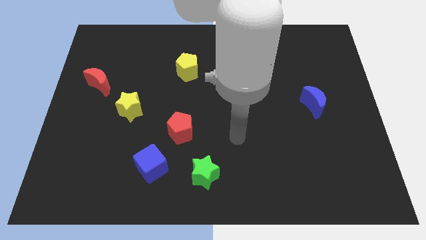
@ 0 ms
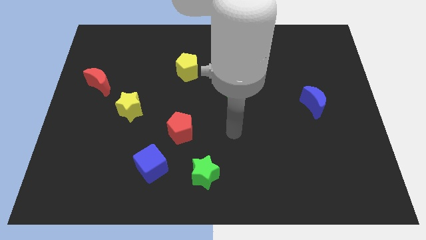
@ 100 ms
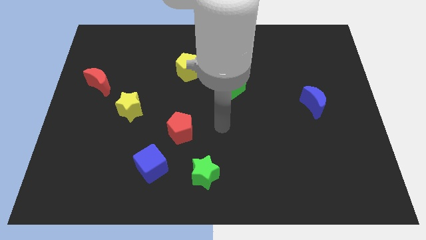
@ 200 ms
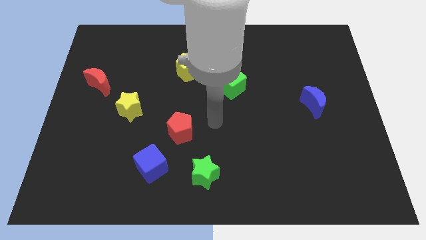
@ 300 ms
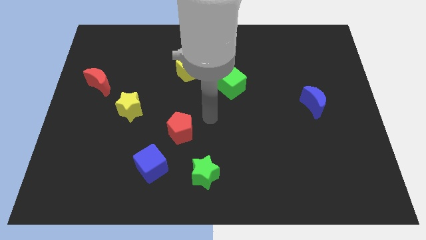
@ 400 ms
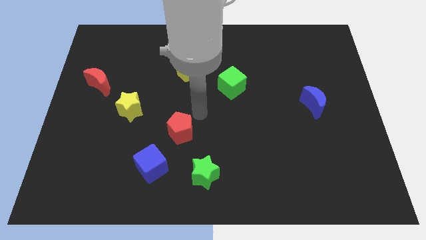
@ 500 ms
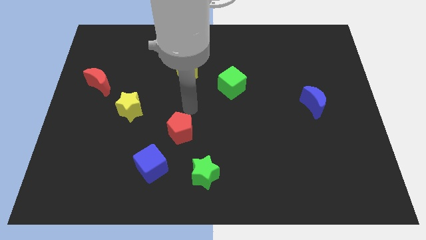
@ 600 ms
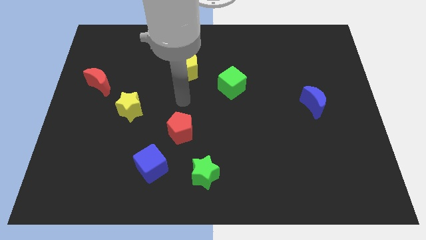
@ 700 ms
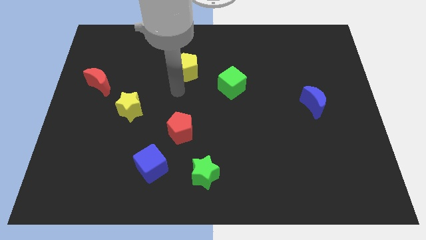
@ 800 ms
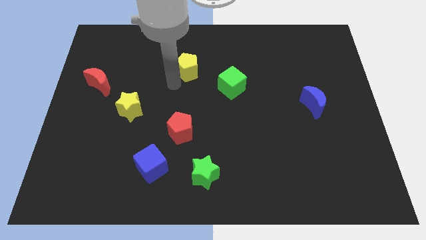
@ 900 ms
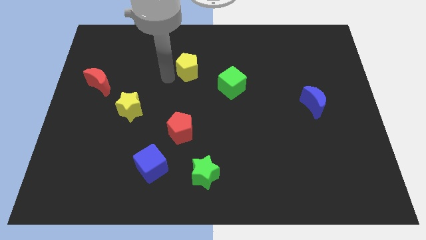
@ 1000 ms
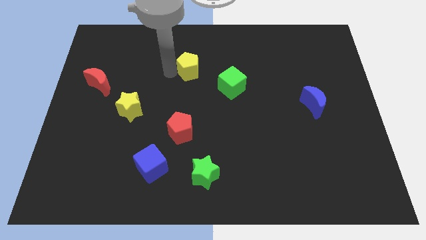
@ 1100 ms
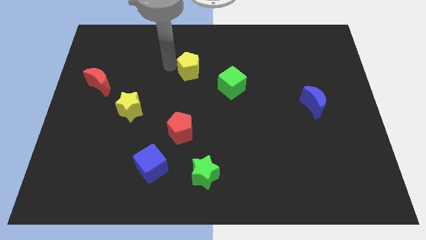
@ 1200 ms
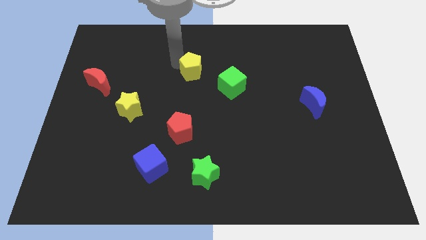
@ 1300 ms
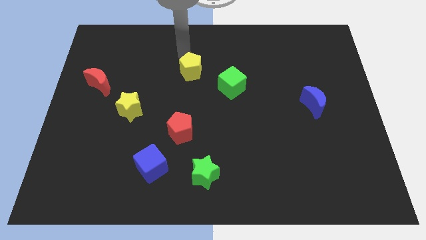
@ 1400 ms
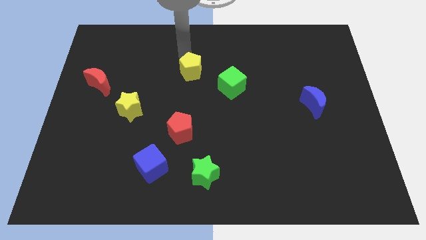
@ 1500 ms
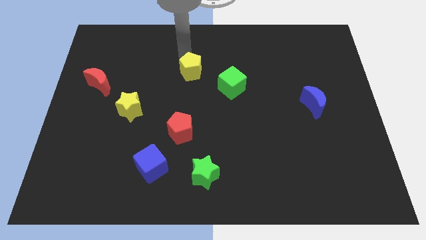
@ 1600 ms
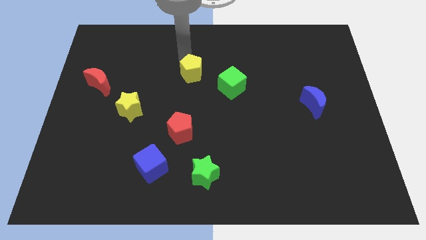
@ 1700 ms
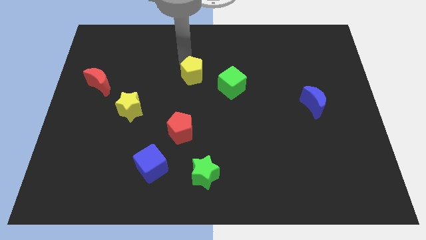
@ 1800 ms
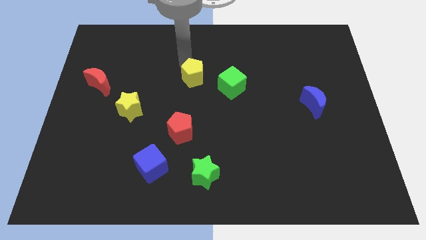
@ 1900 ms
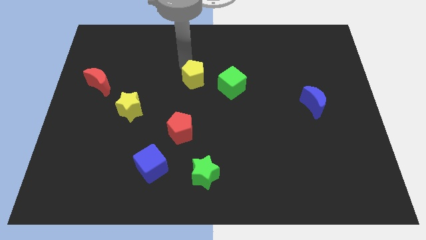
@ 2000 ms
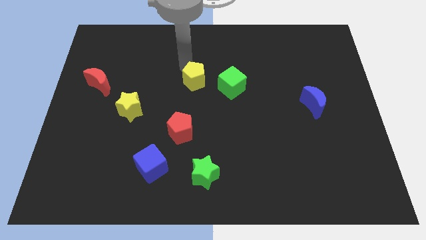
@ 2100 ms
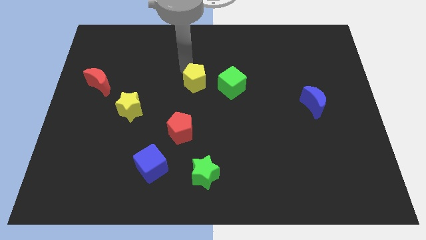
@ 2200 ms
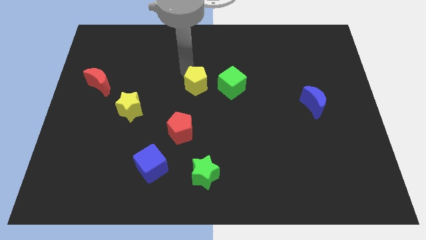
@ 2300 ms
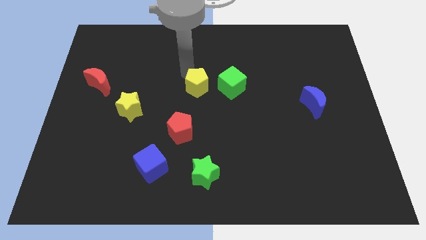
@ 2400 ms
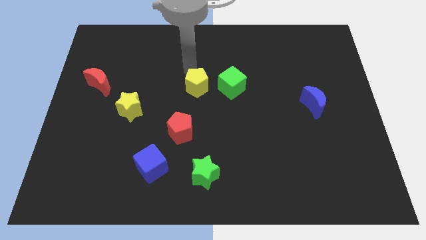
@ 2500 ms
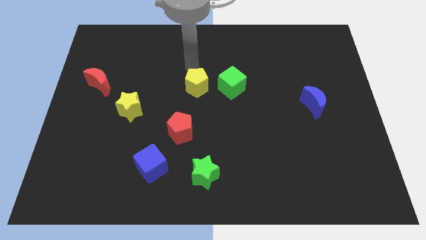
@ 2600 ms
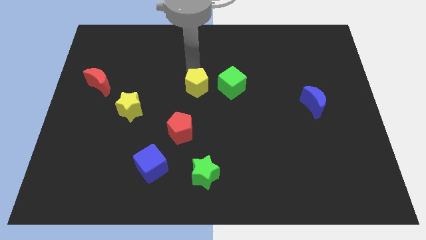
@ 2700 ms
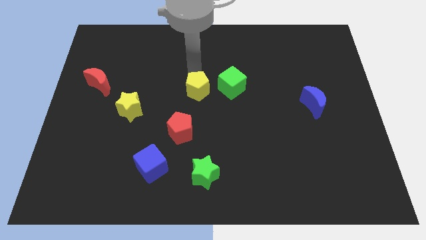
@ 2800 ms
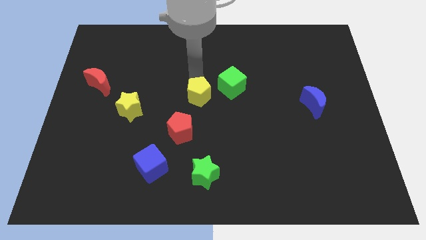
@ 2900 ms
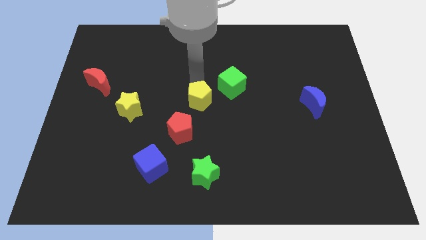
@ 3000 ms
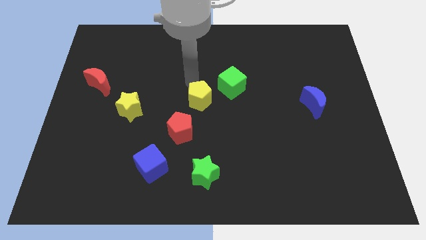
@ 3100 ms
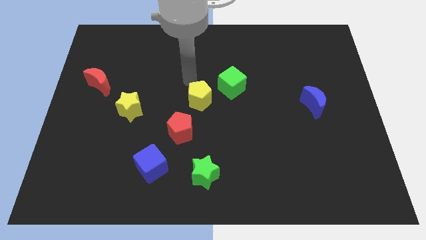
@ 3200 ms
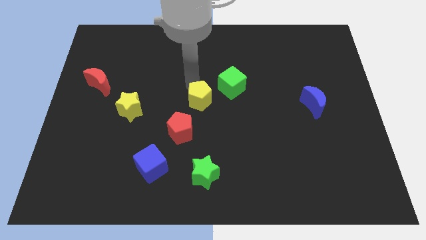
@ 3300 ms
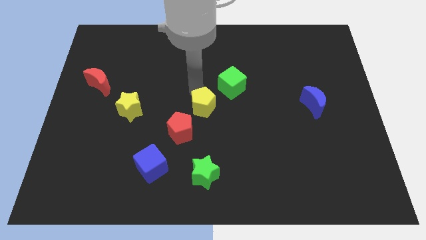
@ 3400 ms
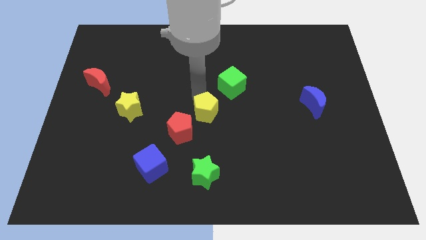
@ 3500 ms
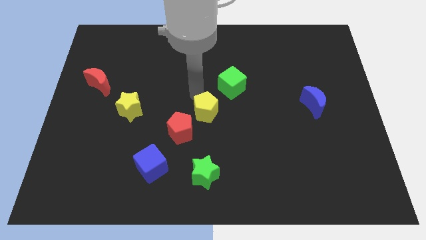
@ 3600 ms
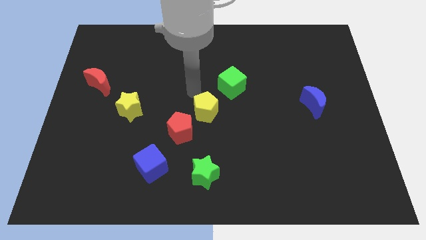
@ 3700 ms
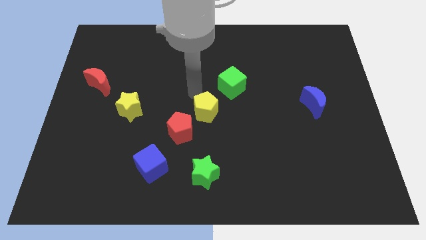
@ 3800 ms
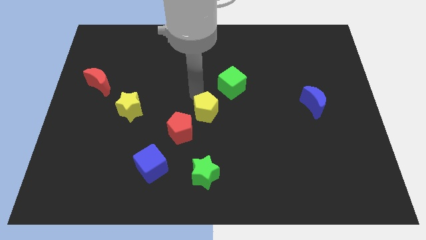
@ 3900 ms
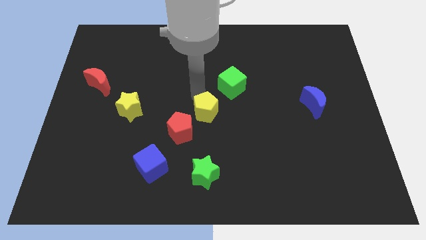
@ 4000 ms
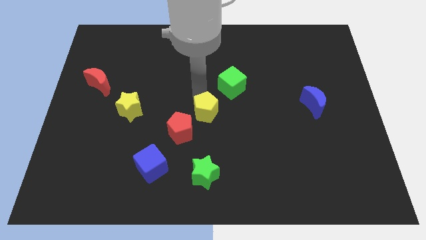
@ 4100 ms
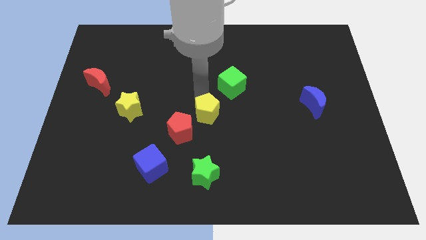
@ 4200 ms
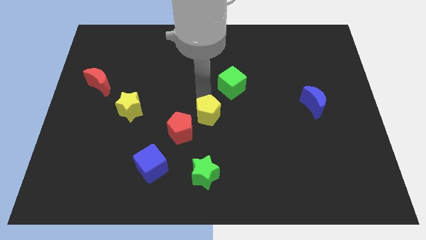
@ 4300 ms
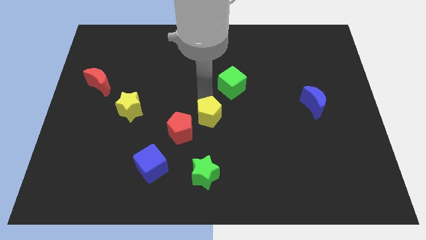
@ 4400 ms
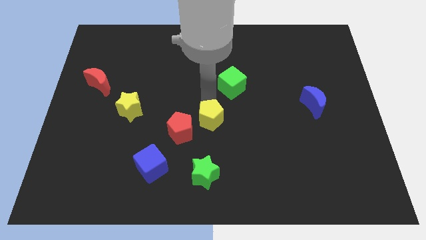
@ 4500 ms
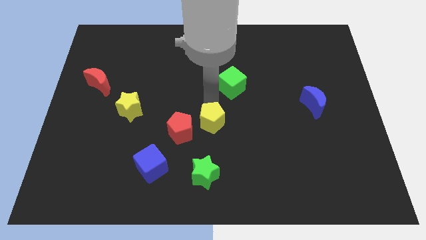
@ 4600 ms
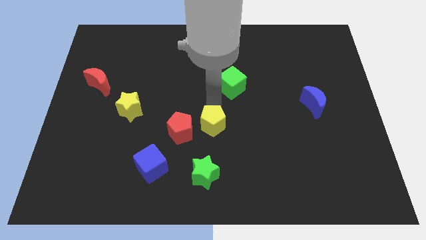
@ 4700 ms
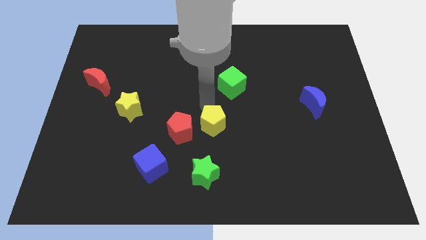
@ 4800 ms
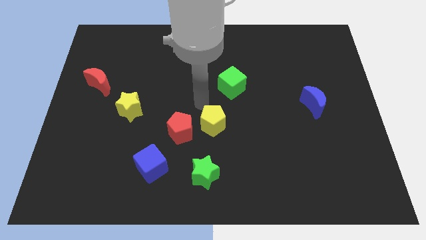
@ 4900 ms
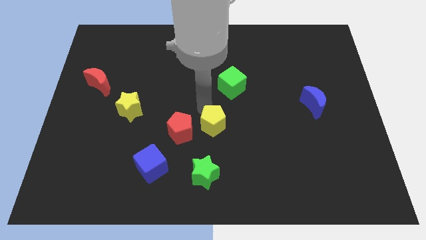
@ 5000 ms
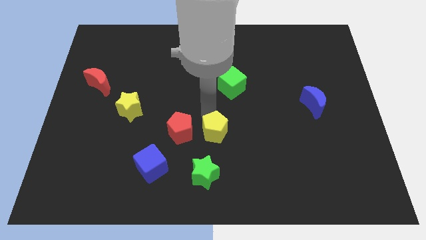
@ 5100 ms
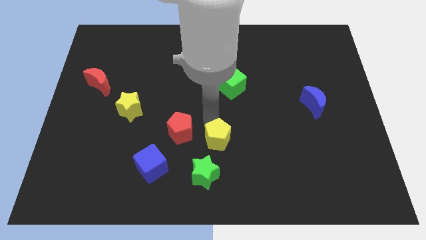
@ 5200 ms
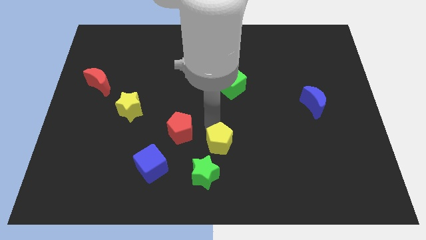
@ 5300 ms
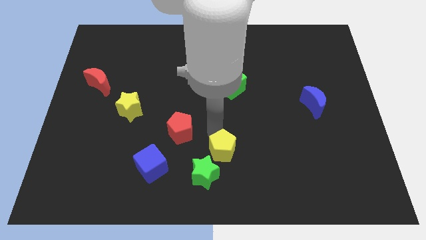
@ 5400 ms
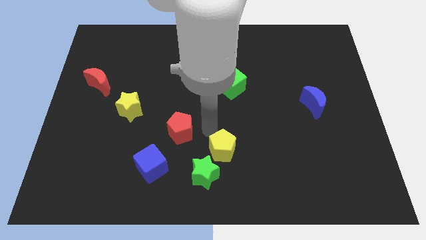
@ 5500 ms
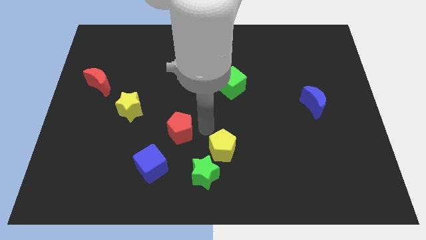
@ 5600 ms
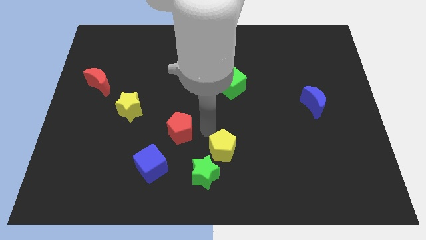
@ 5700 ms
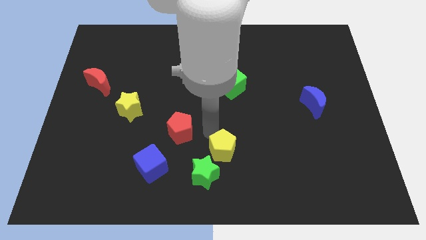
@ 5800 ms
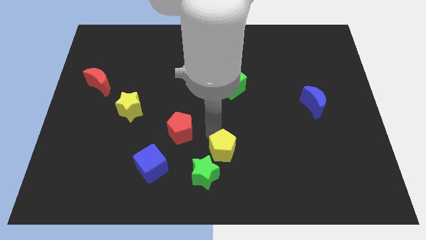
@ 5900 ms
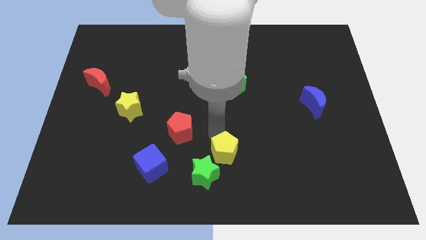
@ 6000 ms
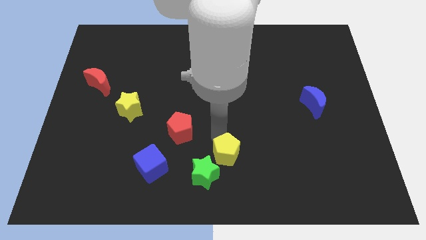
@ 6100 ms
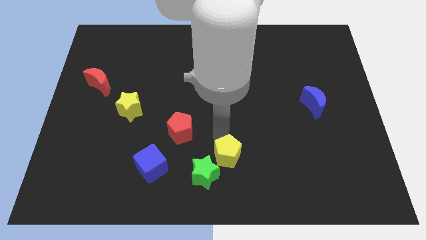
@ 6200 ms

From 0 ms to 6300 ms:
slide the yellow pentagon to the bottom side

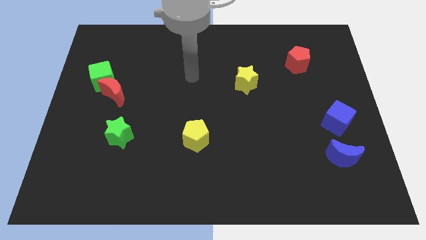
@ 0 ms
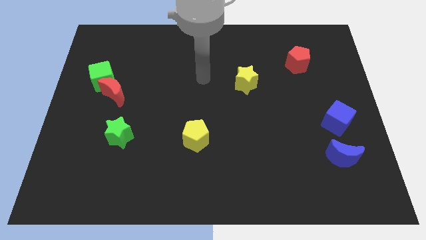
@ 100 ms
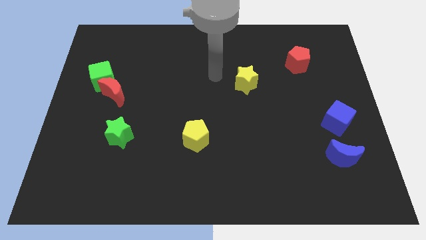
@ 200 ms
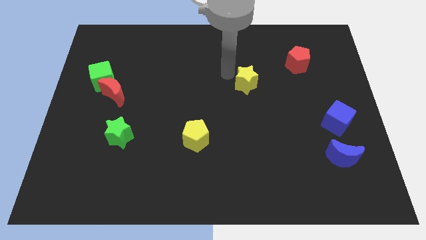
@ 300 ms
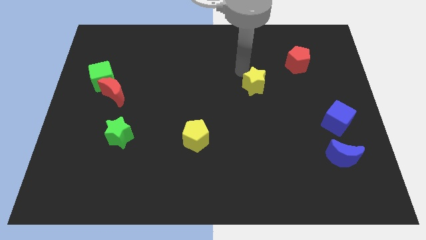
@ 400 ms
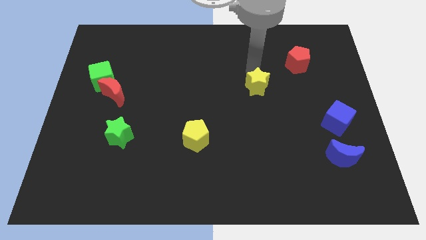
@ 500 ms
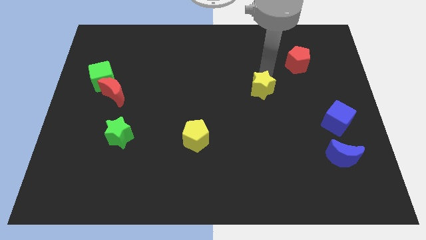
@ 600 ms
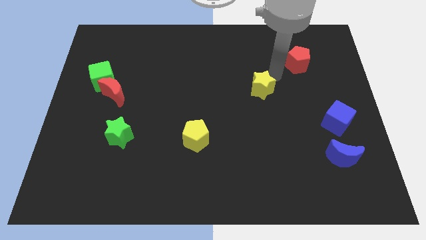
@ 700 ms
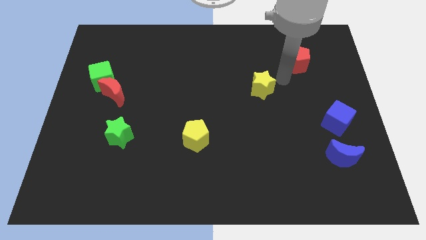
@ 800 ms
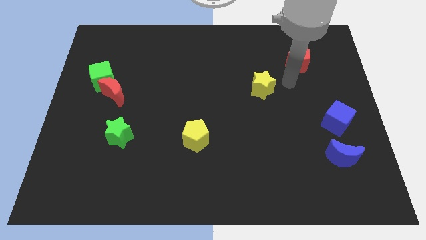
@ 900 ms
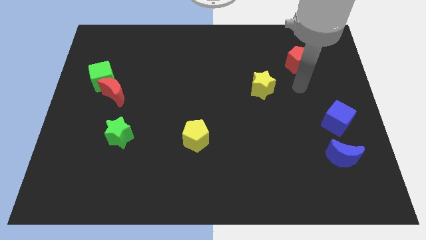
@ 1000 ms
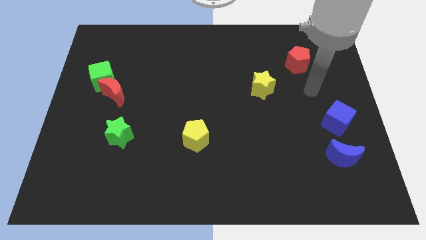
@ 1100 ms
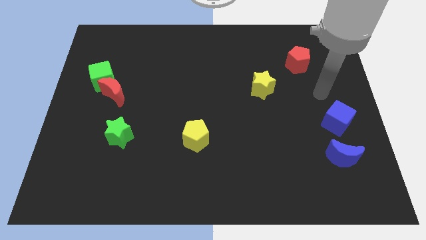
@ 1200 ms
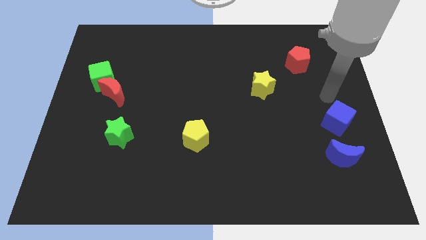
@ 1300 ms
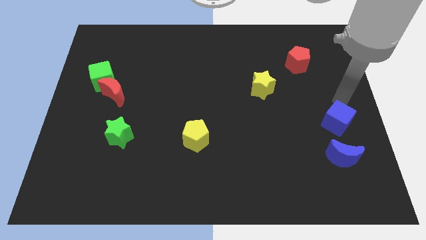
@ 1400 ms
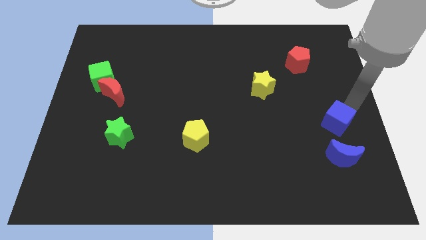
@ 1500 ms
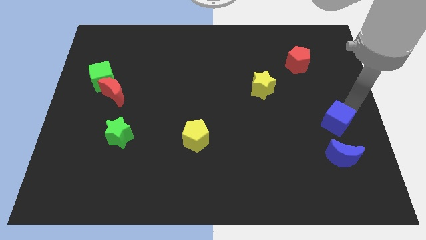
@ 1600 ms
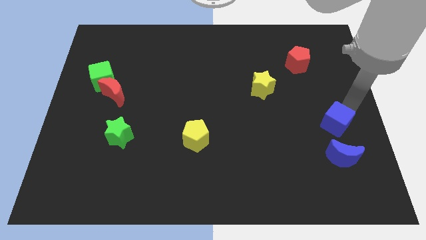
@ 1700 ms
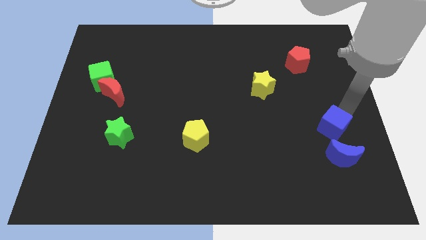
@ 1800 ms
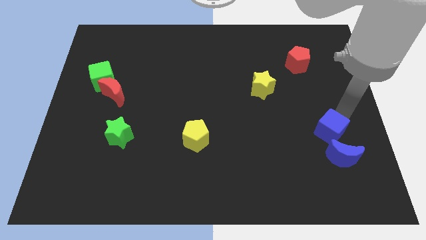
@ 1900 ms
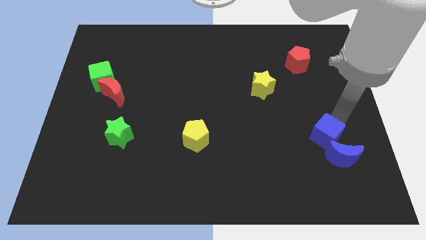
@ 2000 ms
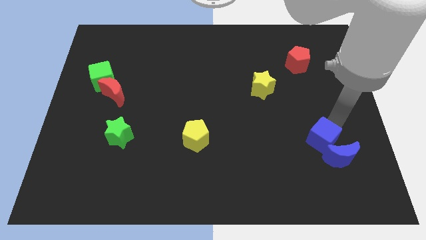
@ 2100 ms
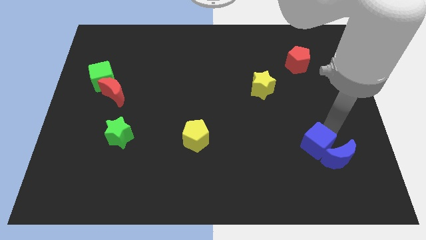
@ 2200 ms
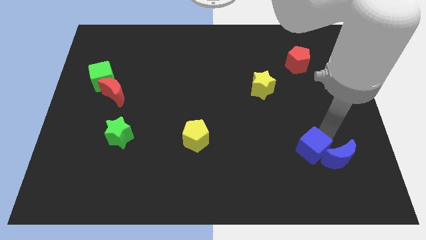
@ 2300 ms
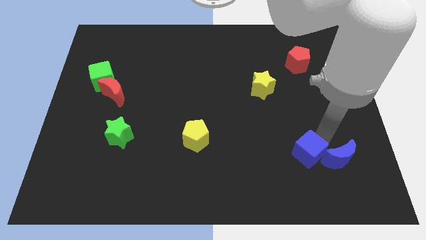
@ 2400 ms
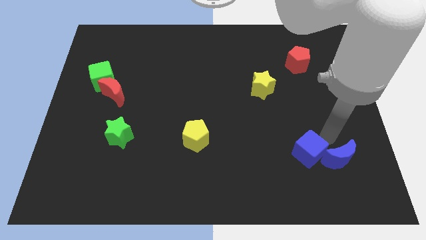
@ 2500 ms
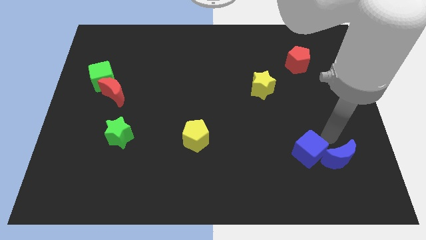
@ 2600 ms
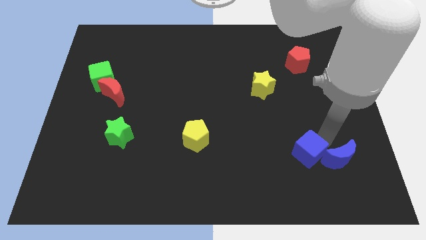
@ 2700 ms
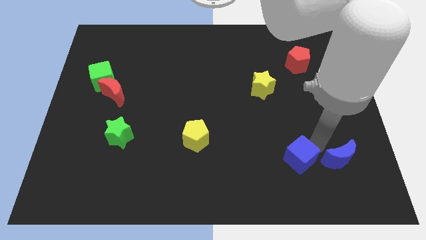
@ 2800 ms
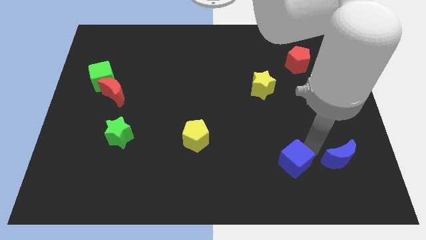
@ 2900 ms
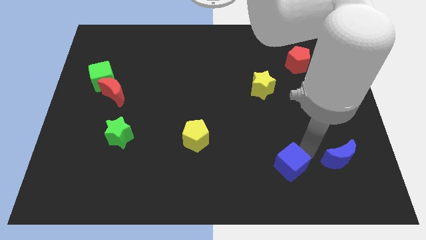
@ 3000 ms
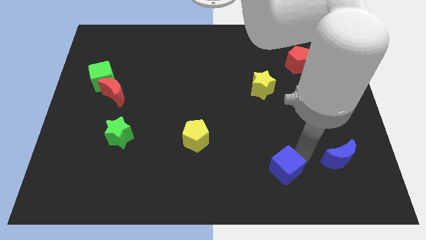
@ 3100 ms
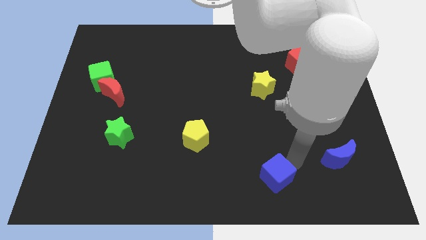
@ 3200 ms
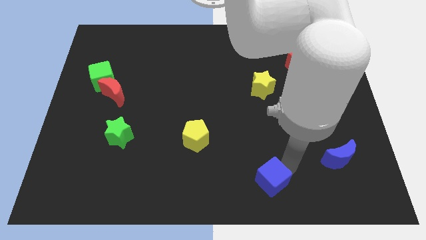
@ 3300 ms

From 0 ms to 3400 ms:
push the blue cube to the bottom side
